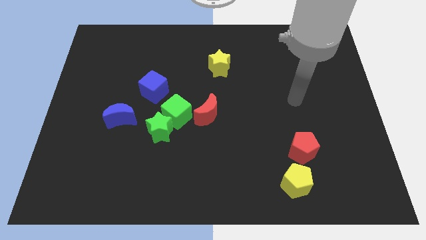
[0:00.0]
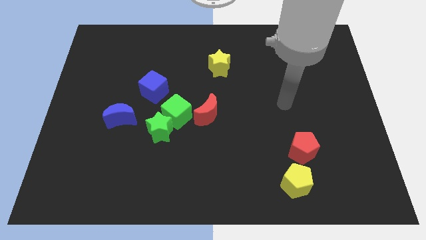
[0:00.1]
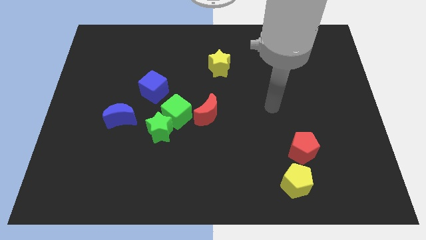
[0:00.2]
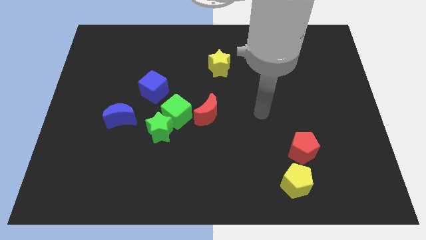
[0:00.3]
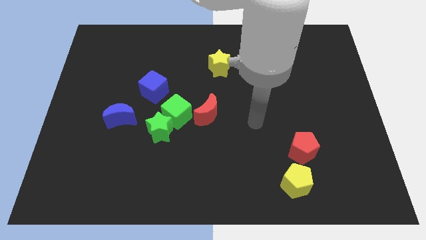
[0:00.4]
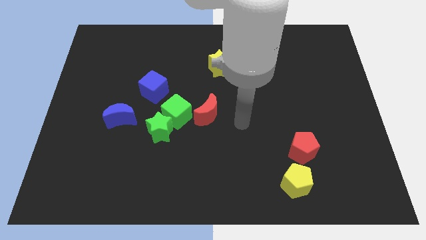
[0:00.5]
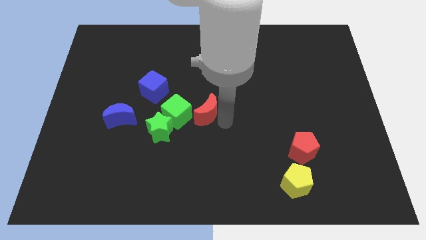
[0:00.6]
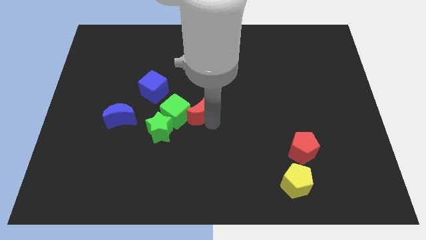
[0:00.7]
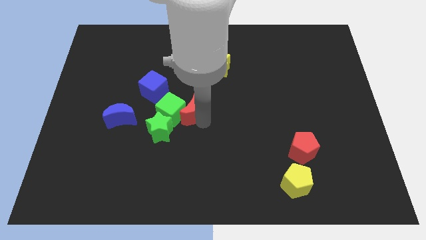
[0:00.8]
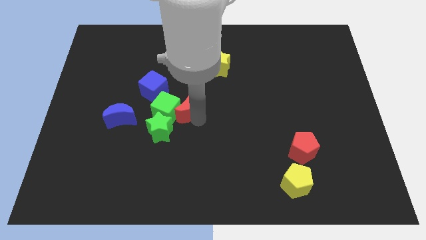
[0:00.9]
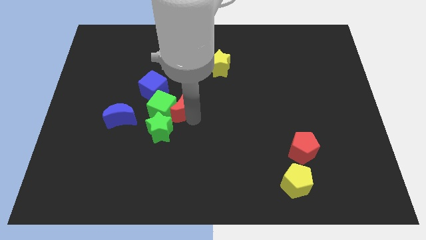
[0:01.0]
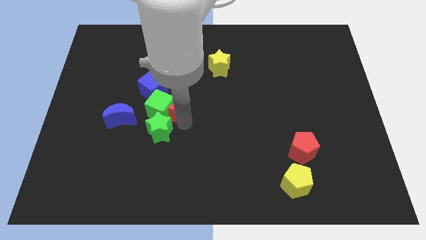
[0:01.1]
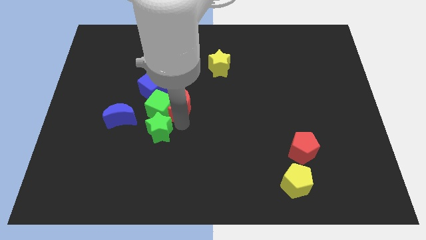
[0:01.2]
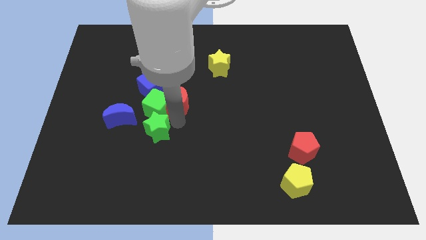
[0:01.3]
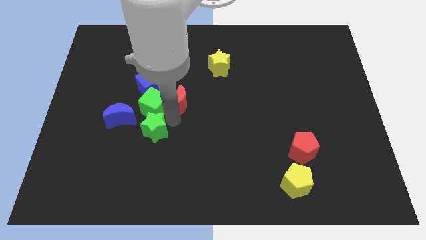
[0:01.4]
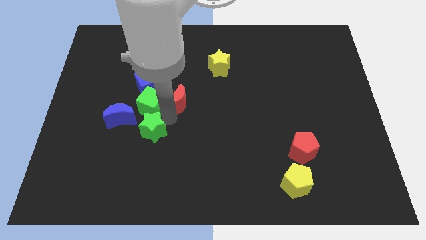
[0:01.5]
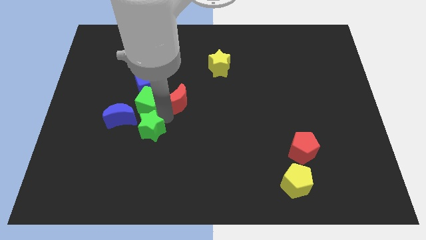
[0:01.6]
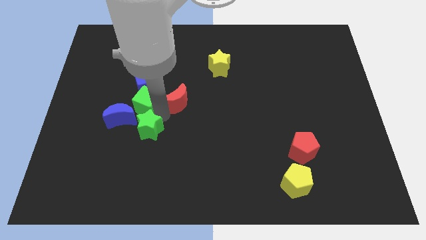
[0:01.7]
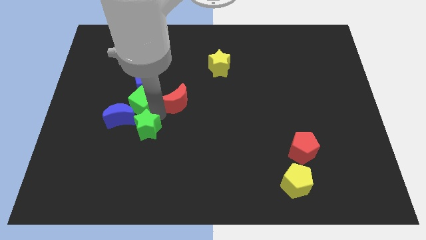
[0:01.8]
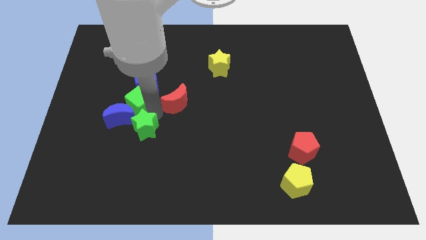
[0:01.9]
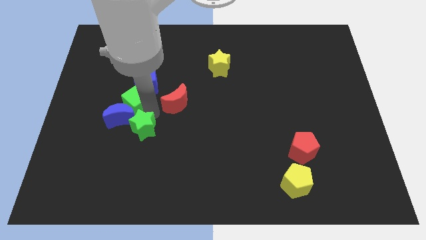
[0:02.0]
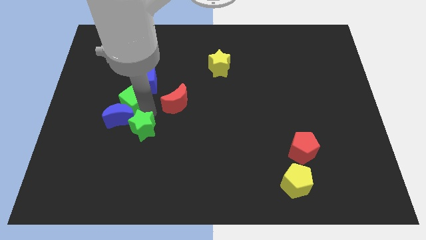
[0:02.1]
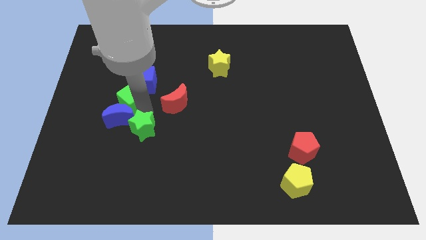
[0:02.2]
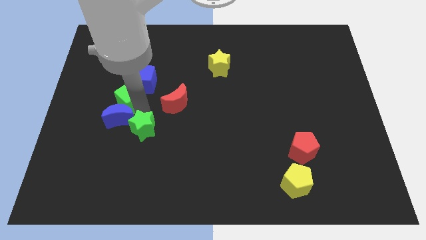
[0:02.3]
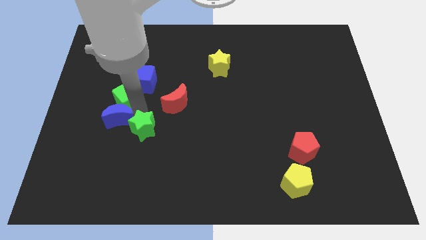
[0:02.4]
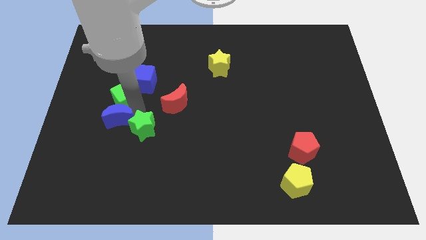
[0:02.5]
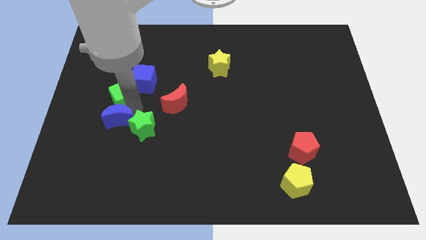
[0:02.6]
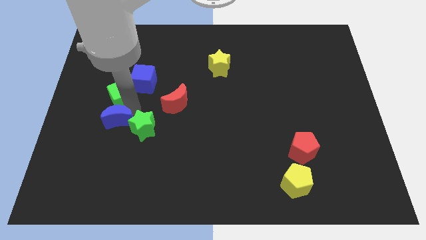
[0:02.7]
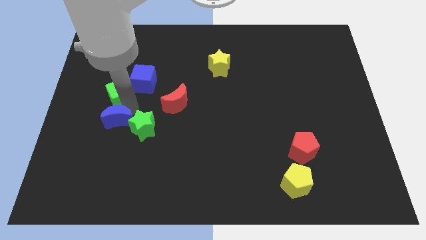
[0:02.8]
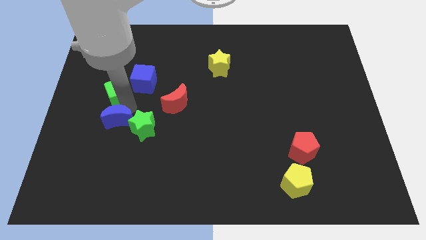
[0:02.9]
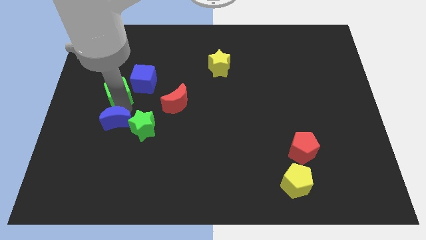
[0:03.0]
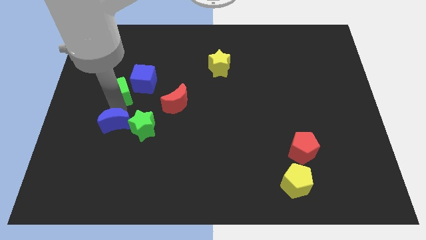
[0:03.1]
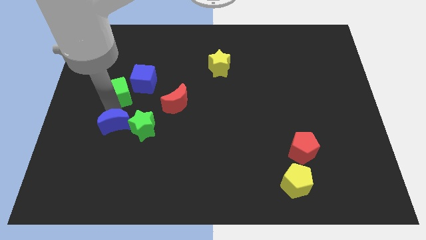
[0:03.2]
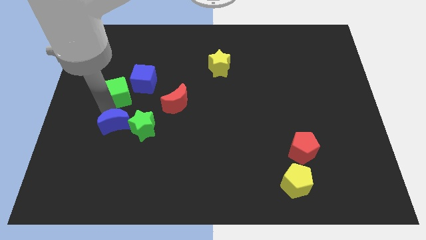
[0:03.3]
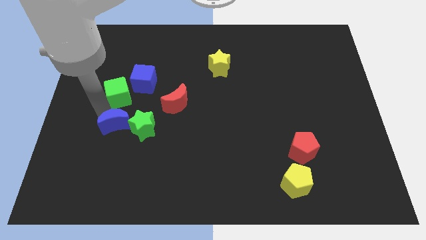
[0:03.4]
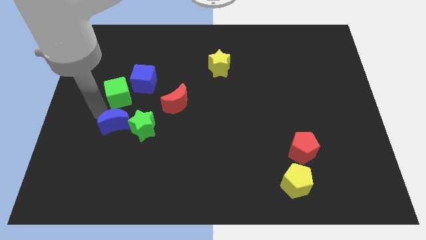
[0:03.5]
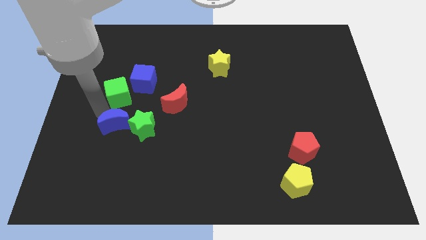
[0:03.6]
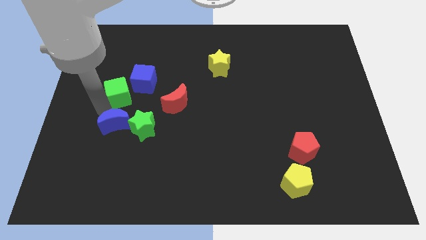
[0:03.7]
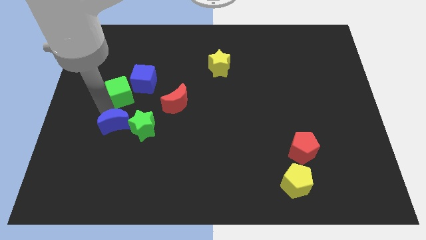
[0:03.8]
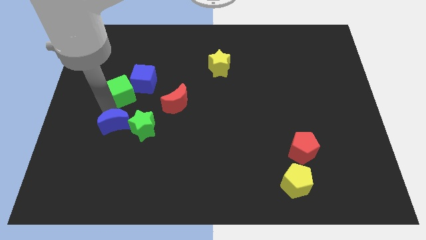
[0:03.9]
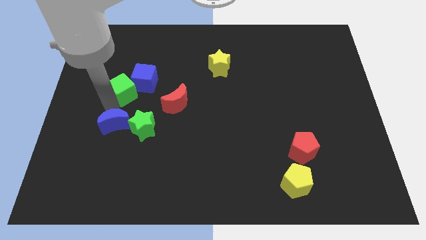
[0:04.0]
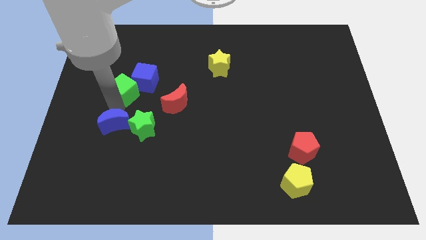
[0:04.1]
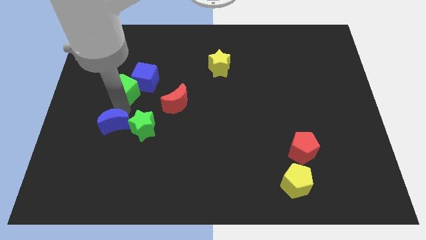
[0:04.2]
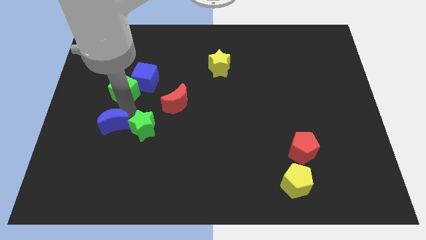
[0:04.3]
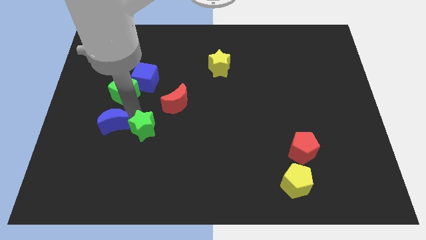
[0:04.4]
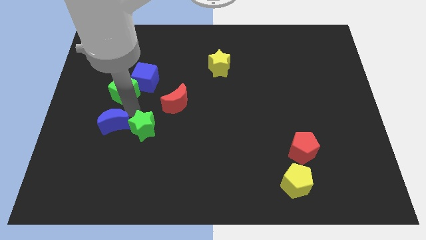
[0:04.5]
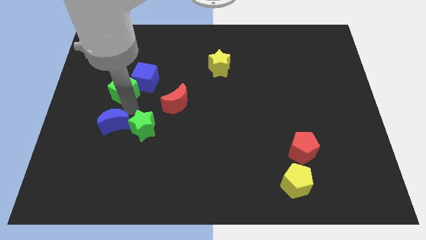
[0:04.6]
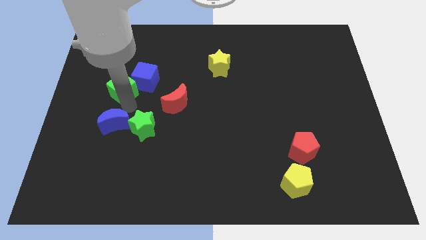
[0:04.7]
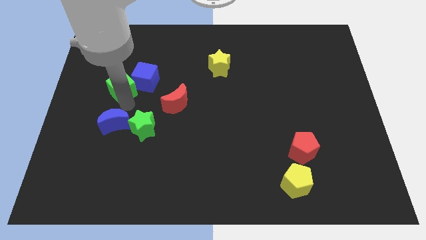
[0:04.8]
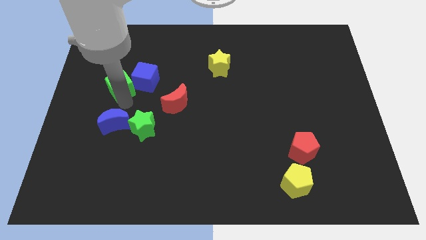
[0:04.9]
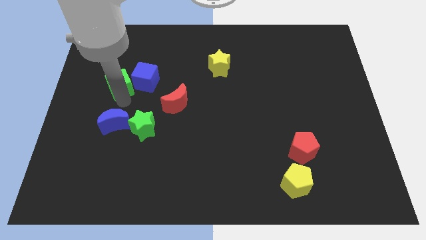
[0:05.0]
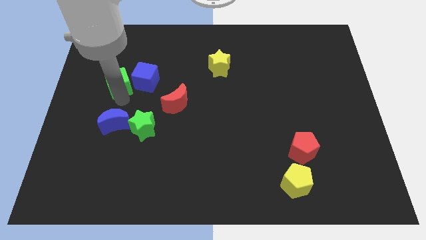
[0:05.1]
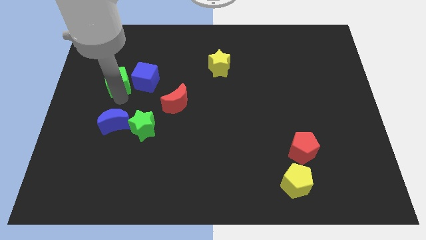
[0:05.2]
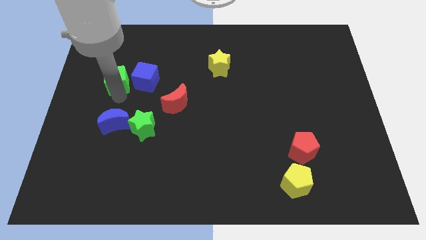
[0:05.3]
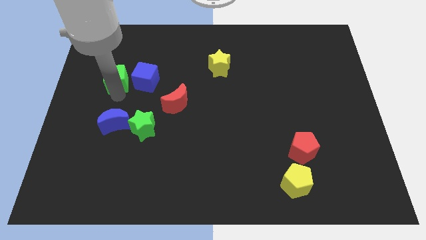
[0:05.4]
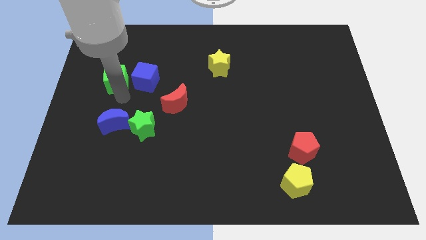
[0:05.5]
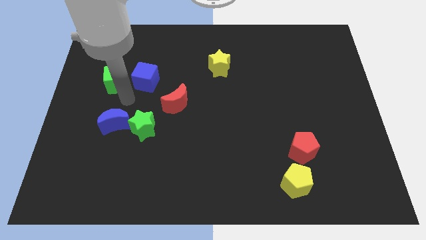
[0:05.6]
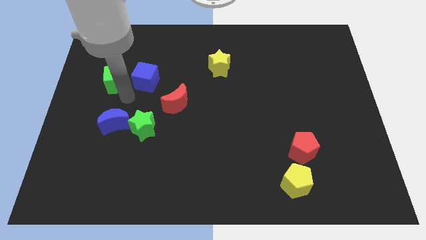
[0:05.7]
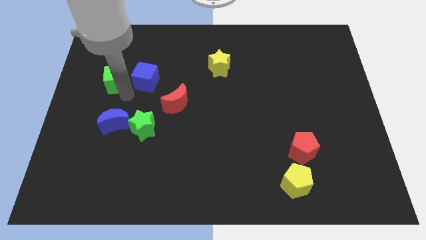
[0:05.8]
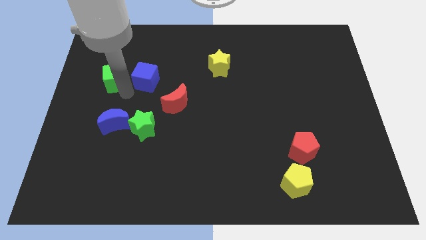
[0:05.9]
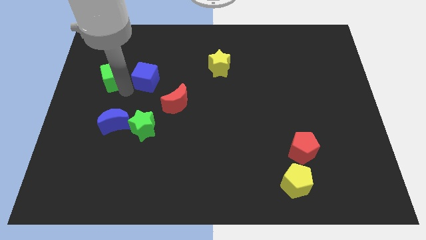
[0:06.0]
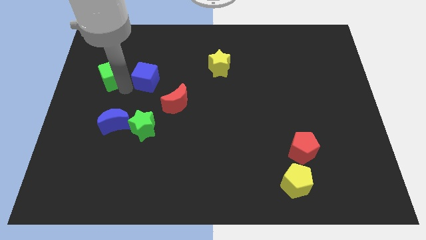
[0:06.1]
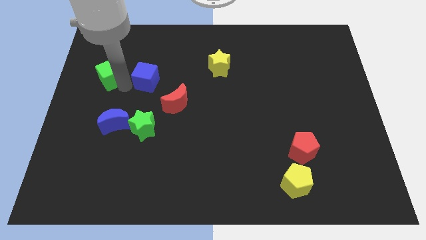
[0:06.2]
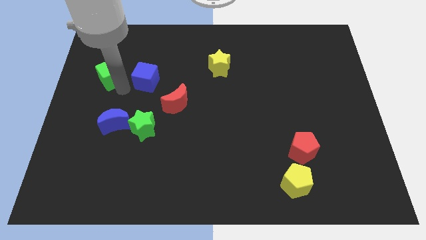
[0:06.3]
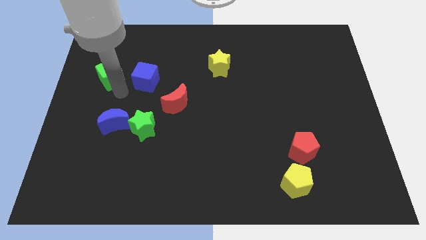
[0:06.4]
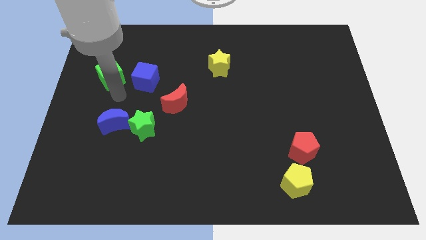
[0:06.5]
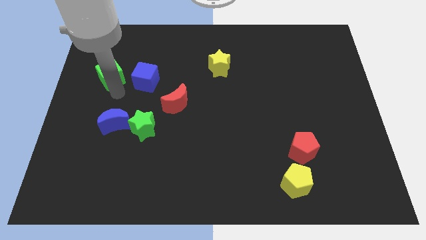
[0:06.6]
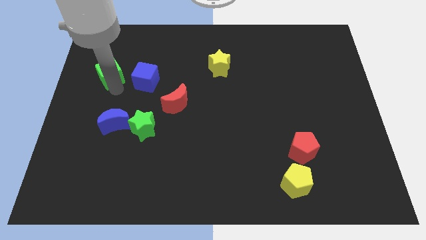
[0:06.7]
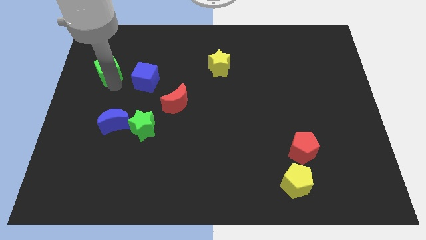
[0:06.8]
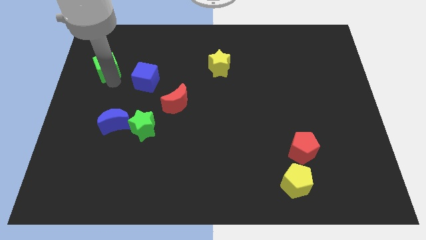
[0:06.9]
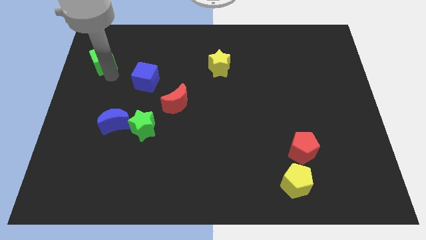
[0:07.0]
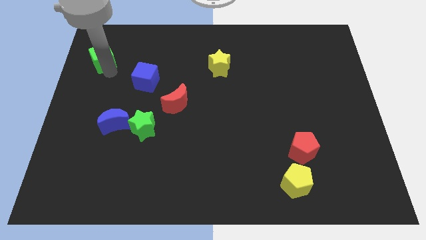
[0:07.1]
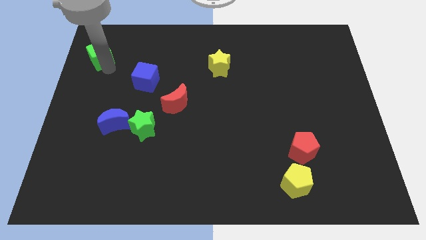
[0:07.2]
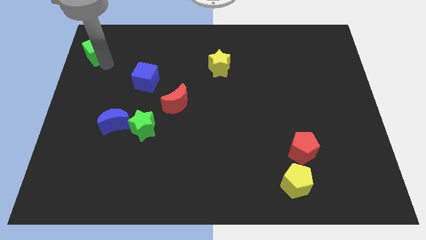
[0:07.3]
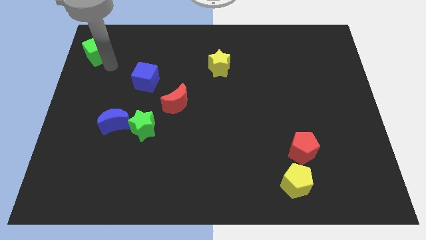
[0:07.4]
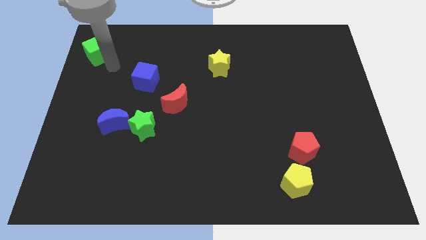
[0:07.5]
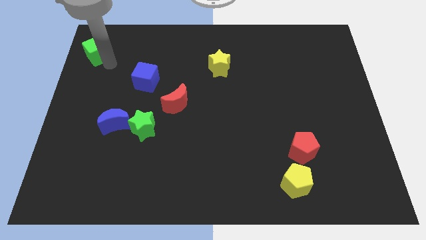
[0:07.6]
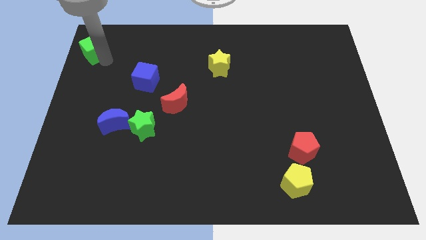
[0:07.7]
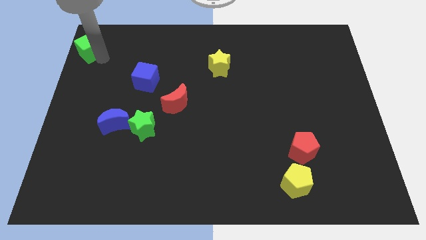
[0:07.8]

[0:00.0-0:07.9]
push the green cube to the upper left corner
